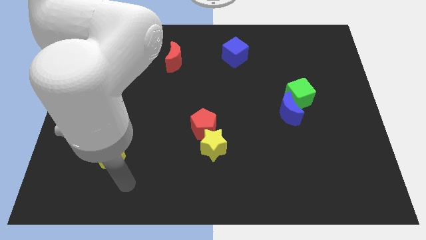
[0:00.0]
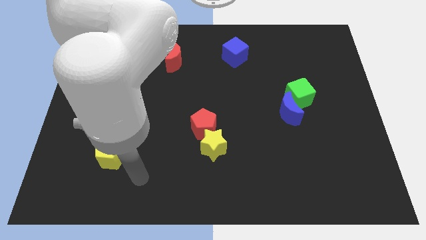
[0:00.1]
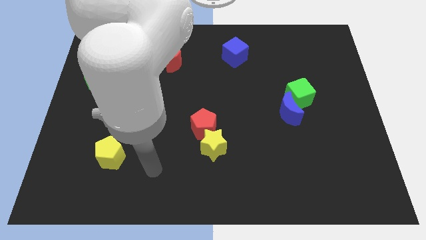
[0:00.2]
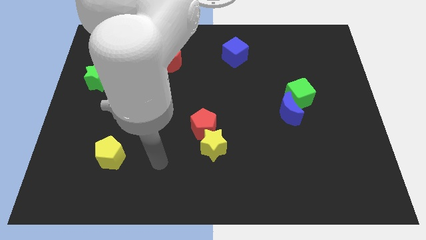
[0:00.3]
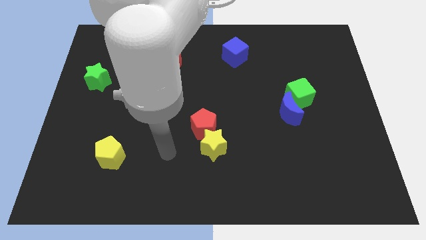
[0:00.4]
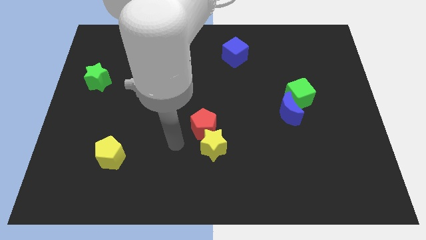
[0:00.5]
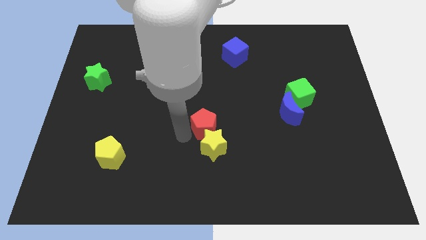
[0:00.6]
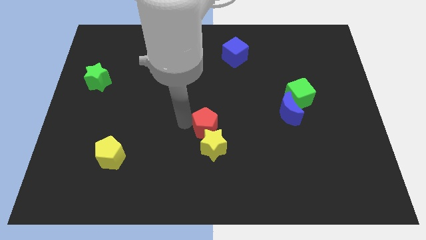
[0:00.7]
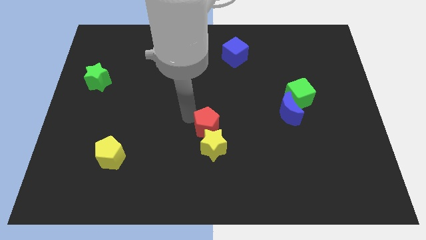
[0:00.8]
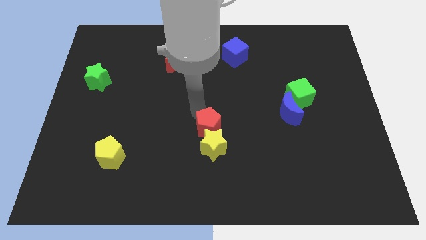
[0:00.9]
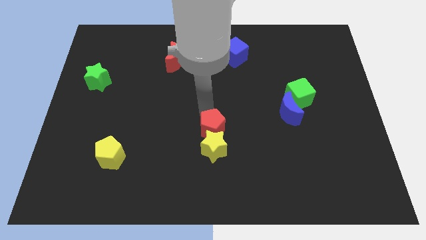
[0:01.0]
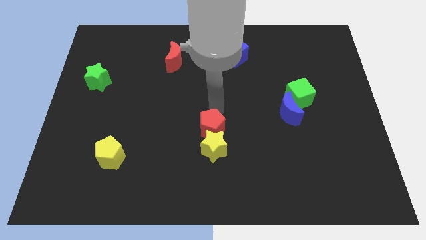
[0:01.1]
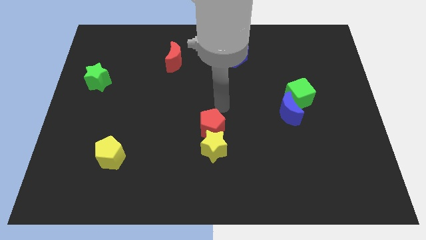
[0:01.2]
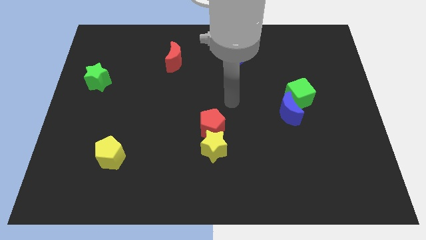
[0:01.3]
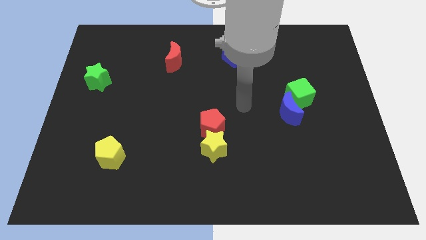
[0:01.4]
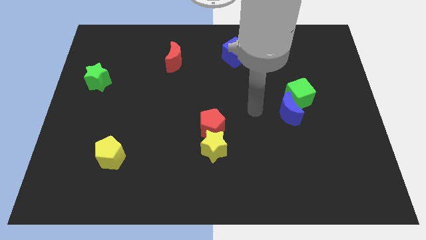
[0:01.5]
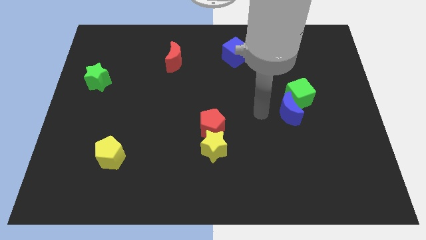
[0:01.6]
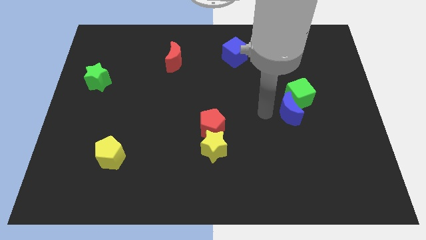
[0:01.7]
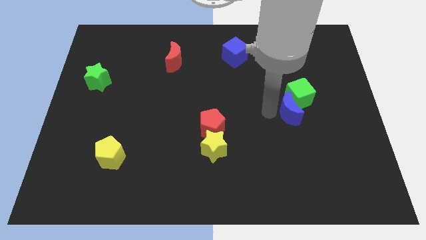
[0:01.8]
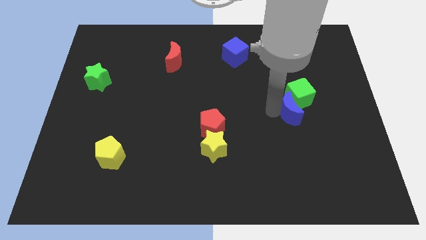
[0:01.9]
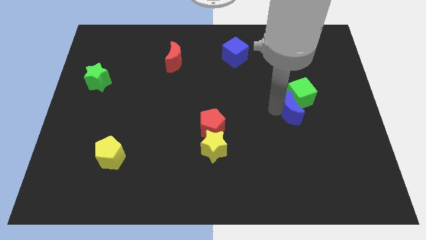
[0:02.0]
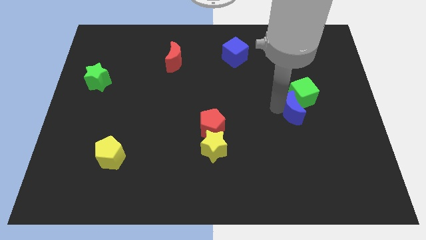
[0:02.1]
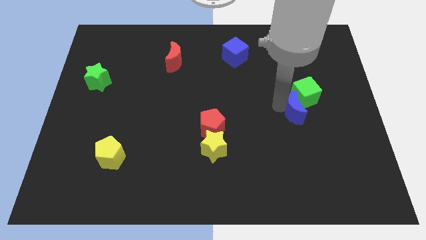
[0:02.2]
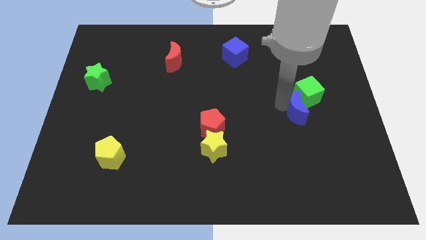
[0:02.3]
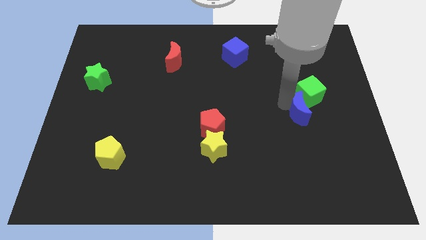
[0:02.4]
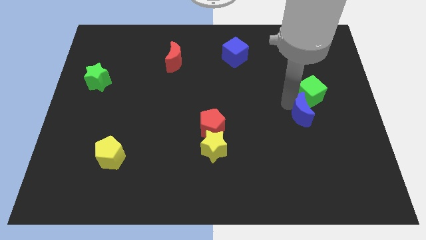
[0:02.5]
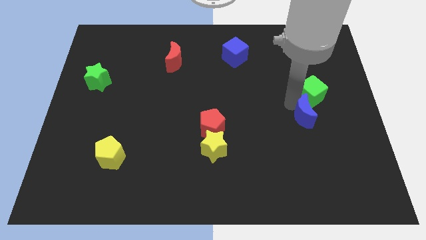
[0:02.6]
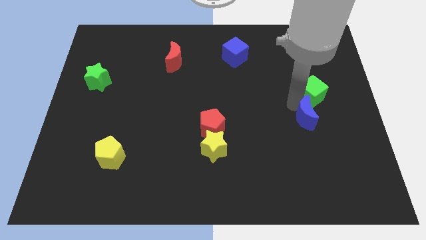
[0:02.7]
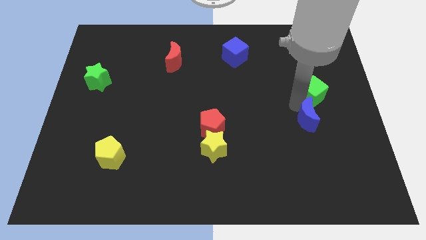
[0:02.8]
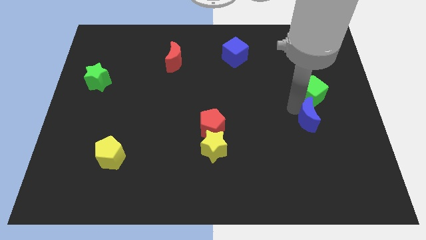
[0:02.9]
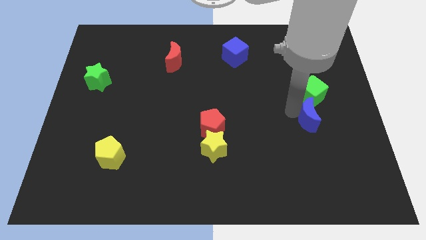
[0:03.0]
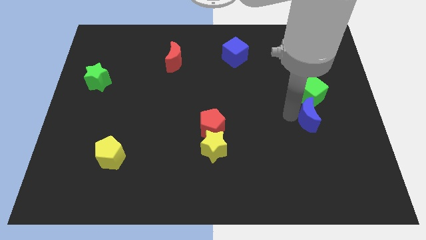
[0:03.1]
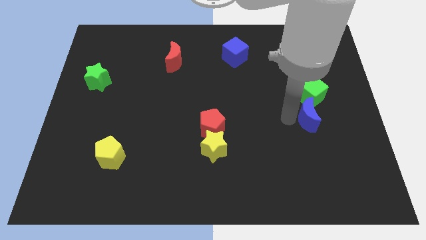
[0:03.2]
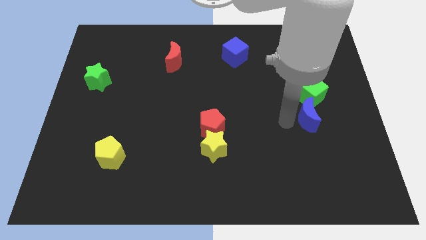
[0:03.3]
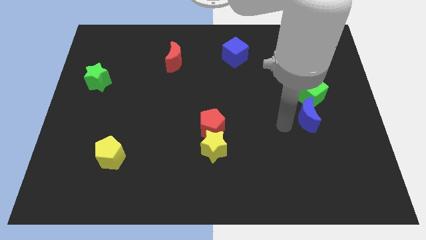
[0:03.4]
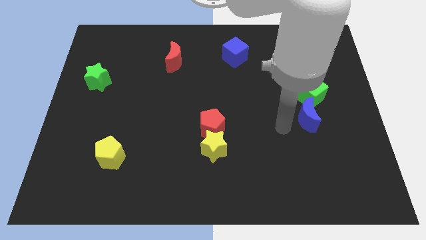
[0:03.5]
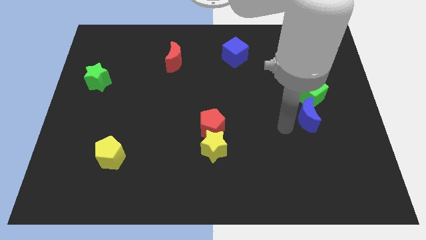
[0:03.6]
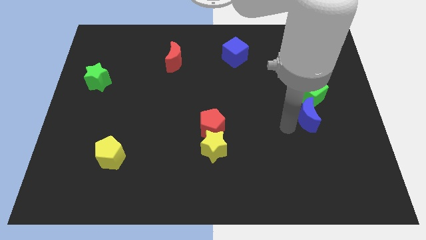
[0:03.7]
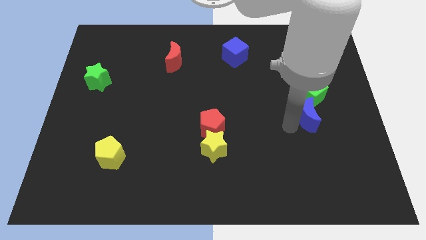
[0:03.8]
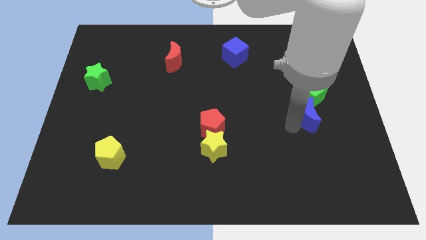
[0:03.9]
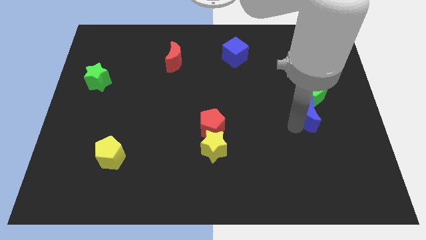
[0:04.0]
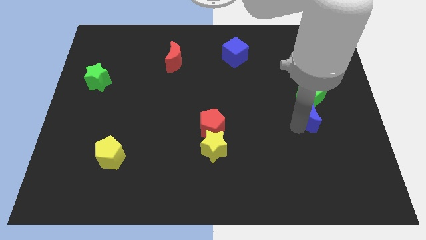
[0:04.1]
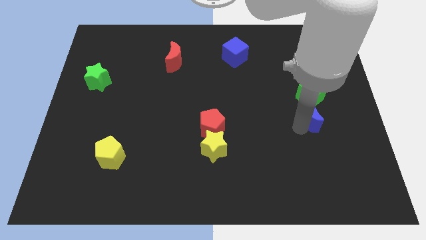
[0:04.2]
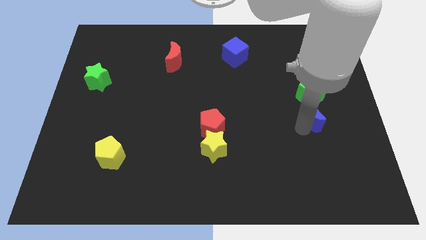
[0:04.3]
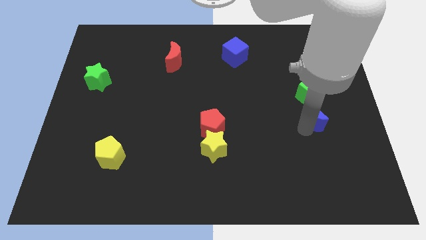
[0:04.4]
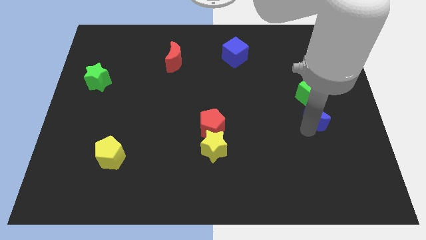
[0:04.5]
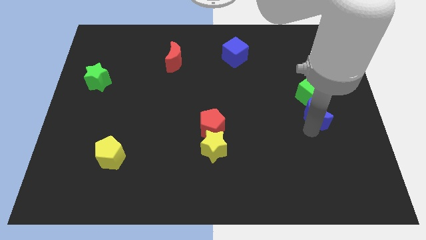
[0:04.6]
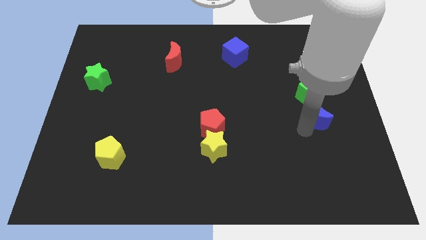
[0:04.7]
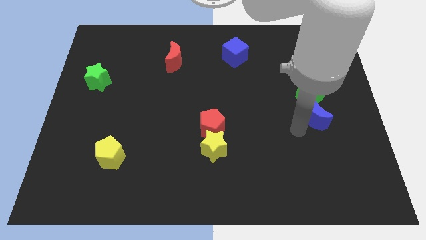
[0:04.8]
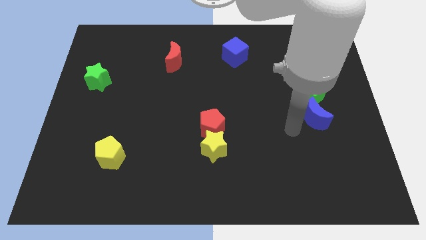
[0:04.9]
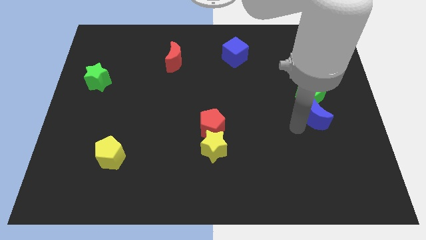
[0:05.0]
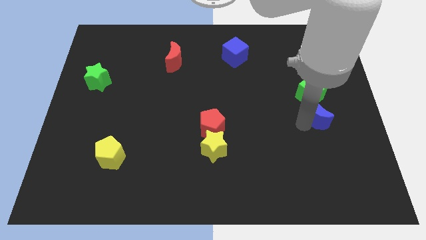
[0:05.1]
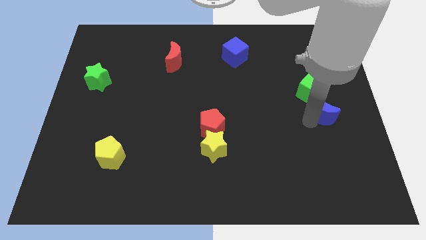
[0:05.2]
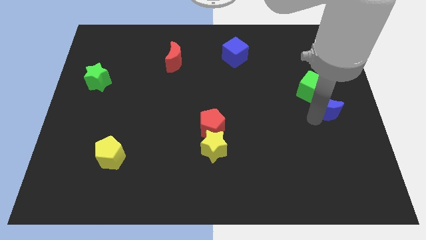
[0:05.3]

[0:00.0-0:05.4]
put the blue moon to the right side of the board
